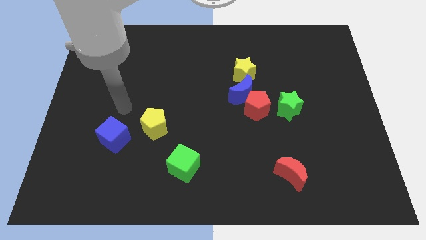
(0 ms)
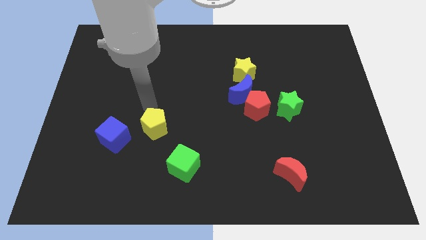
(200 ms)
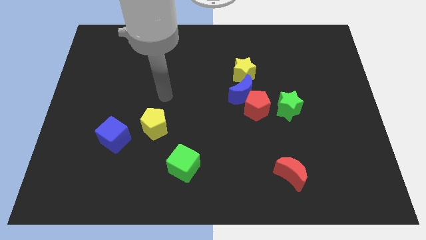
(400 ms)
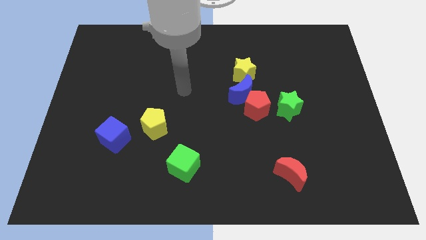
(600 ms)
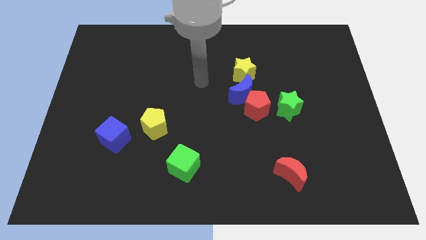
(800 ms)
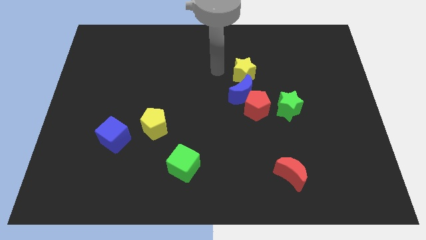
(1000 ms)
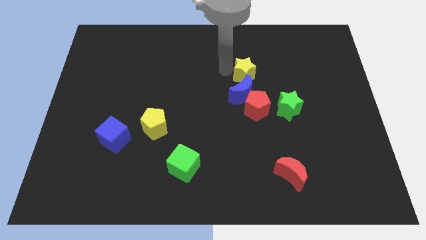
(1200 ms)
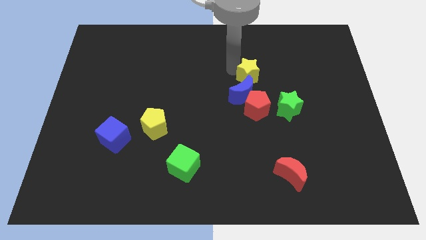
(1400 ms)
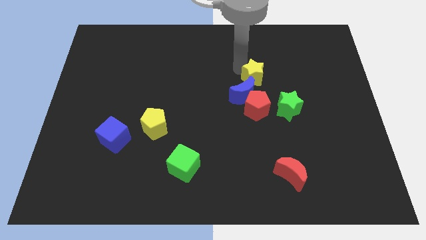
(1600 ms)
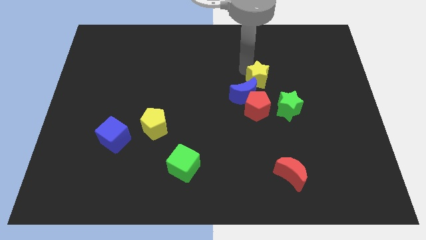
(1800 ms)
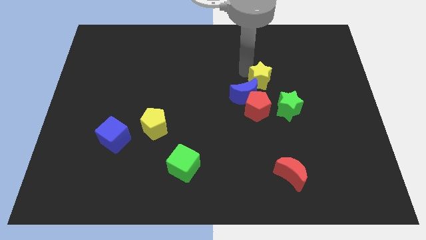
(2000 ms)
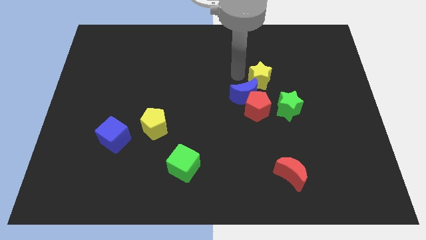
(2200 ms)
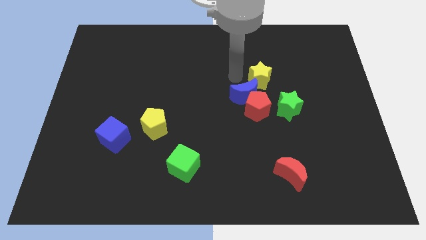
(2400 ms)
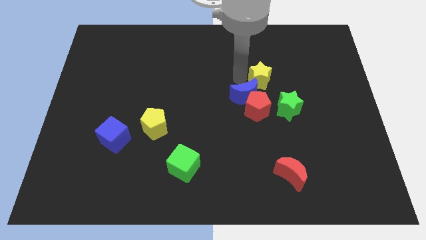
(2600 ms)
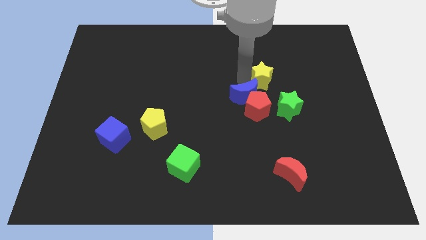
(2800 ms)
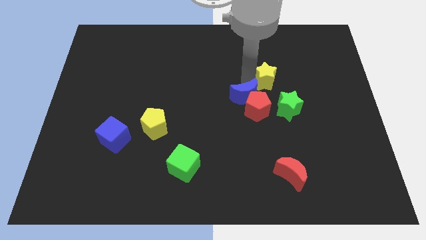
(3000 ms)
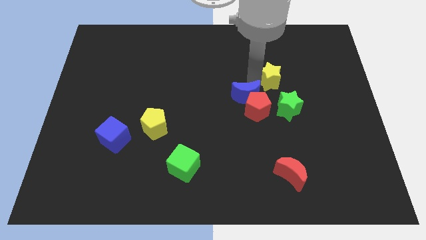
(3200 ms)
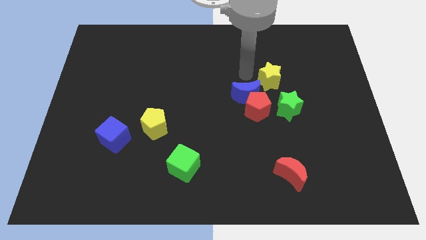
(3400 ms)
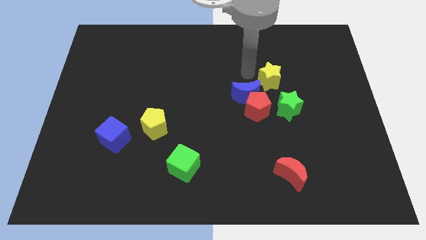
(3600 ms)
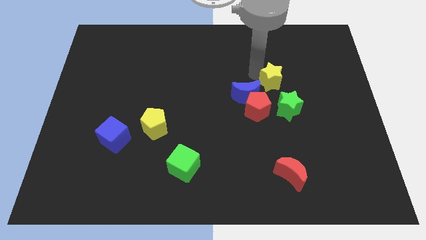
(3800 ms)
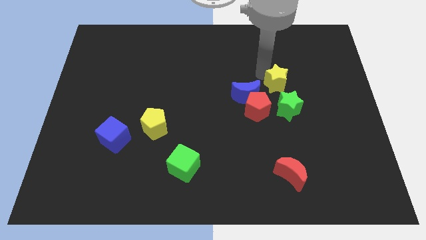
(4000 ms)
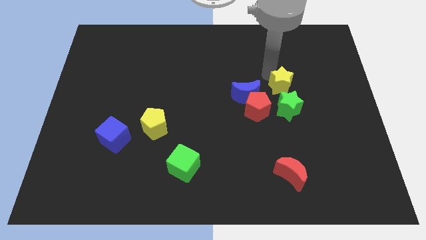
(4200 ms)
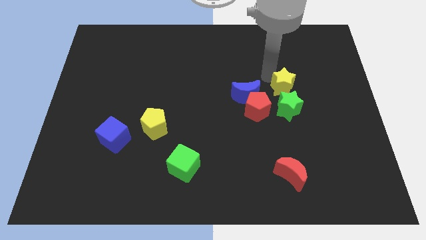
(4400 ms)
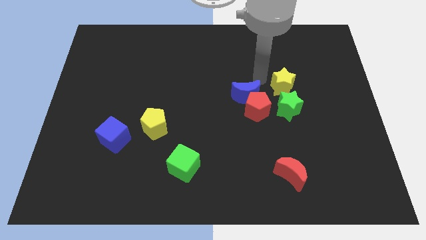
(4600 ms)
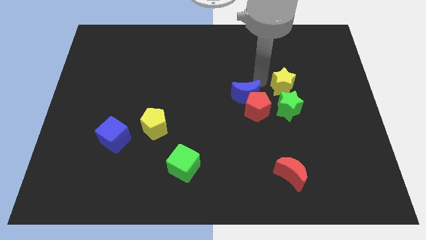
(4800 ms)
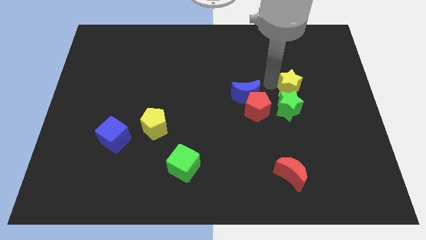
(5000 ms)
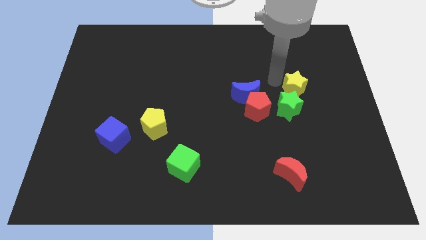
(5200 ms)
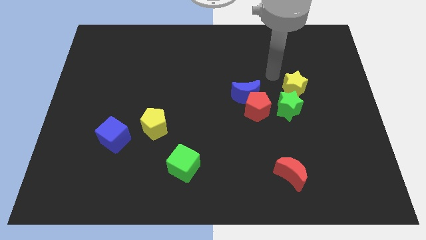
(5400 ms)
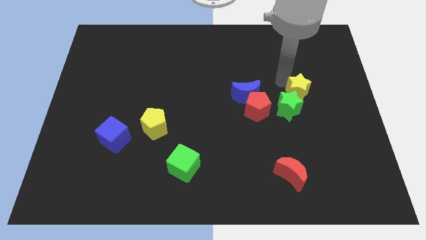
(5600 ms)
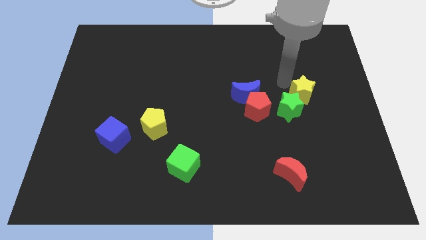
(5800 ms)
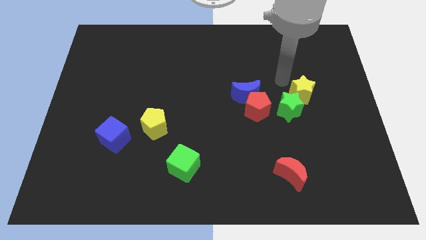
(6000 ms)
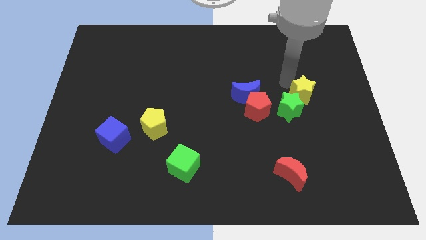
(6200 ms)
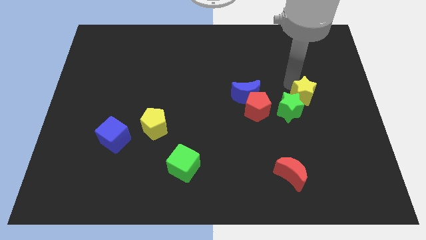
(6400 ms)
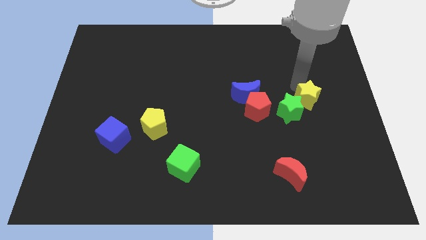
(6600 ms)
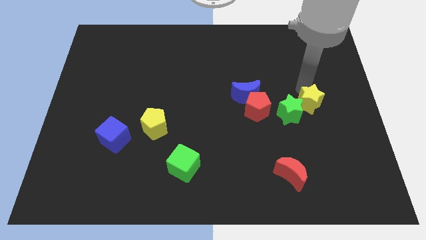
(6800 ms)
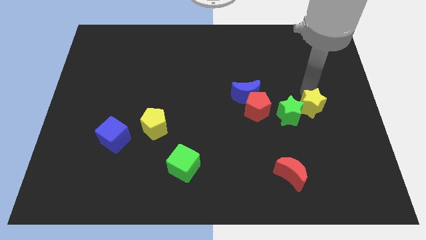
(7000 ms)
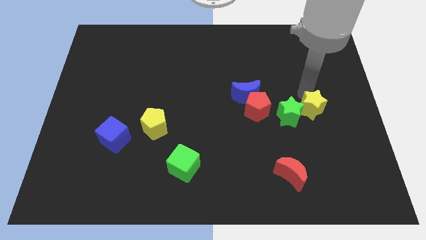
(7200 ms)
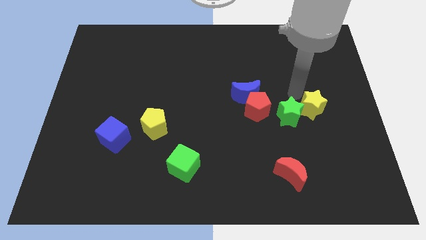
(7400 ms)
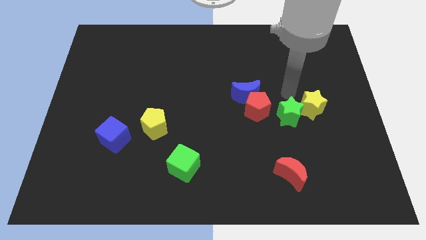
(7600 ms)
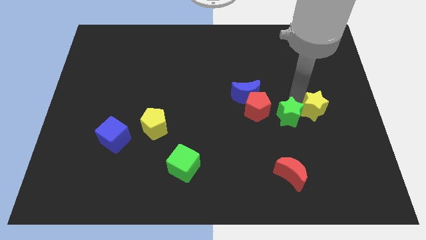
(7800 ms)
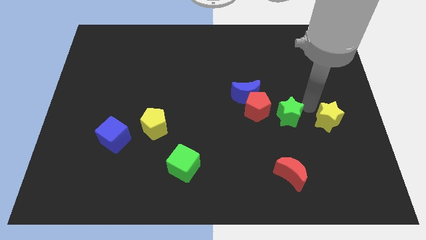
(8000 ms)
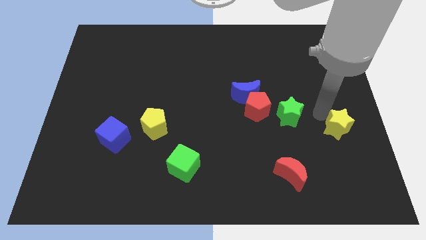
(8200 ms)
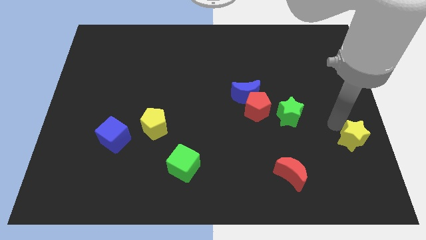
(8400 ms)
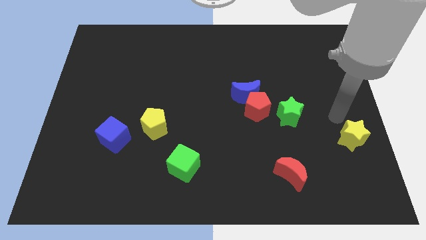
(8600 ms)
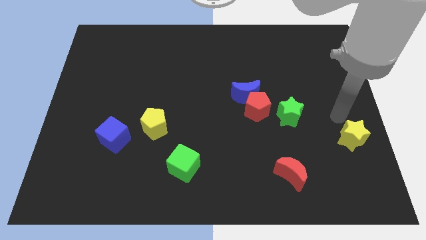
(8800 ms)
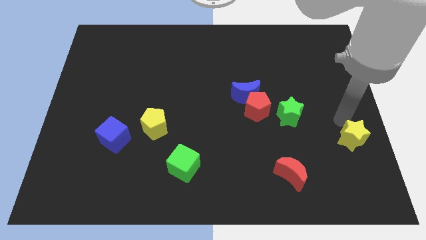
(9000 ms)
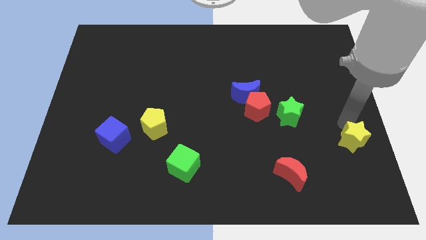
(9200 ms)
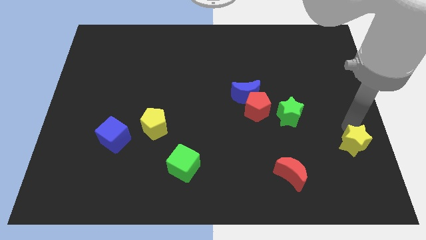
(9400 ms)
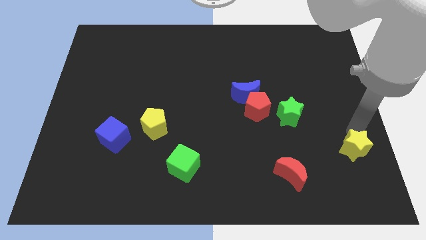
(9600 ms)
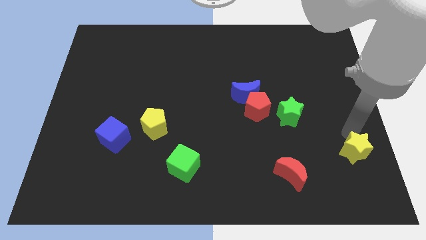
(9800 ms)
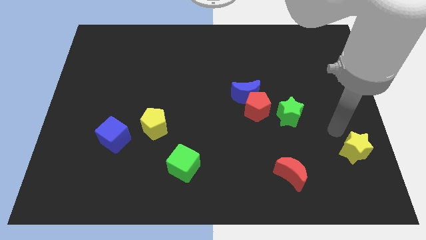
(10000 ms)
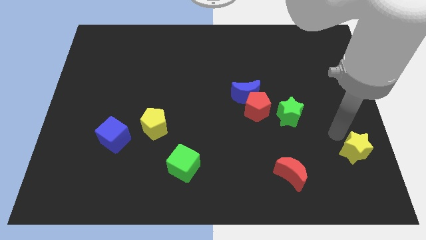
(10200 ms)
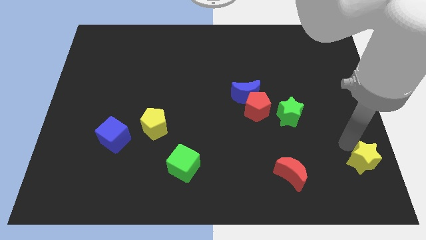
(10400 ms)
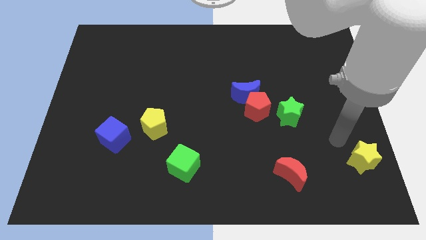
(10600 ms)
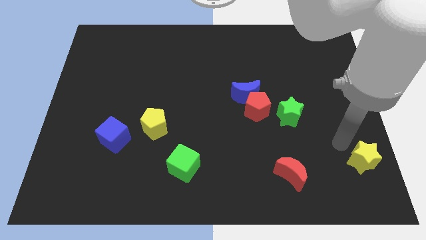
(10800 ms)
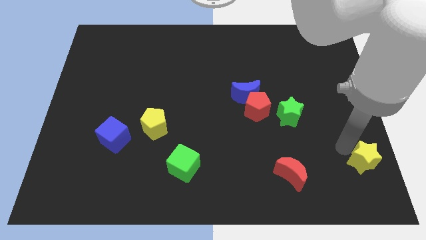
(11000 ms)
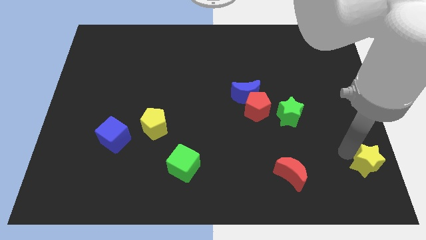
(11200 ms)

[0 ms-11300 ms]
move the yellow star to the lower right corner

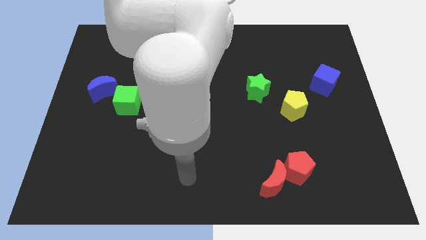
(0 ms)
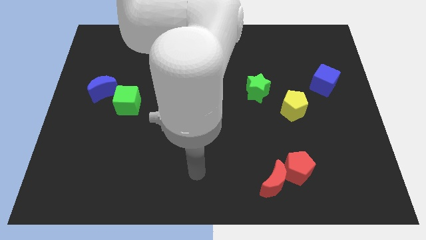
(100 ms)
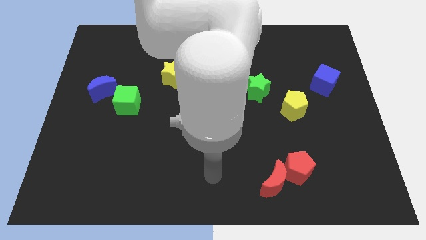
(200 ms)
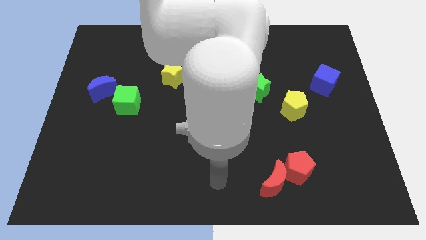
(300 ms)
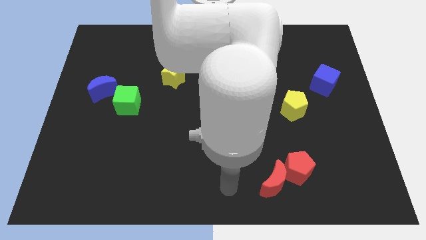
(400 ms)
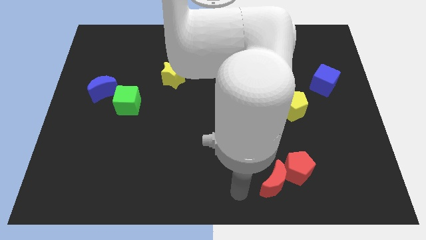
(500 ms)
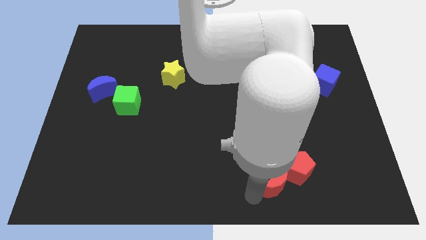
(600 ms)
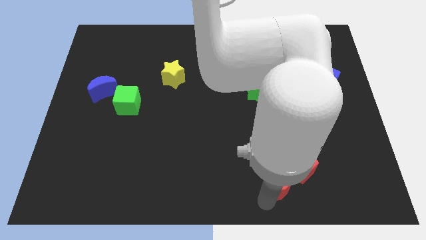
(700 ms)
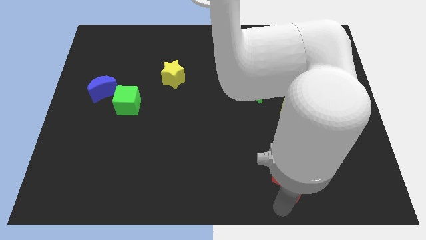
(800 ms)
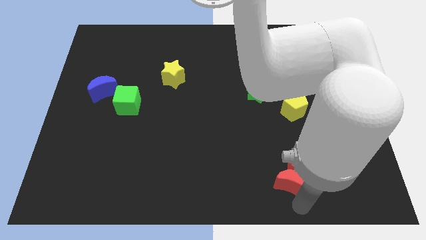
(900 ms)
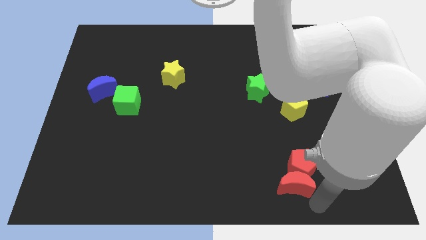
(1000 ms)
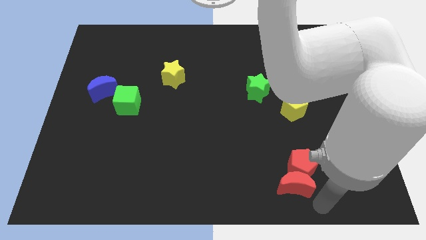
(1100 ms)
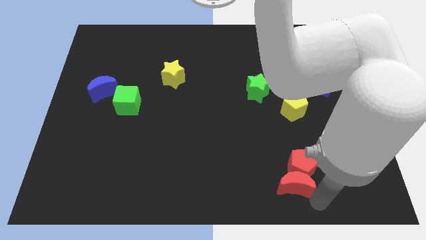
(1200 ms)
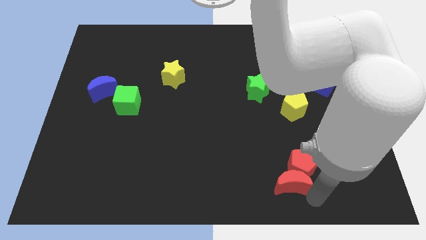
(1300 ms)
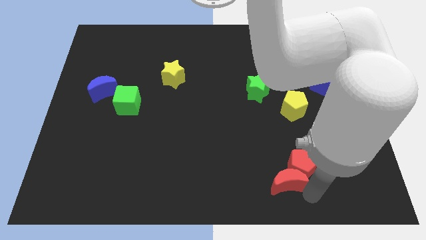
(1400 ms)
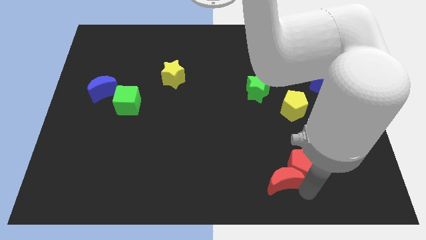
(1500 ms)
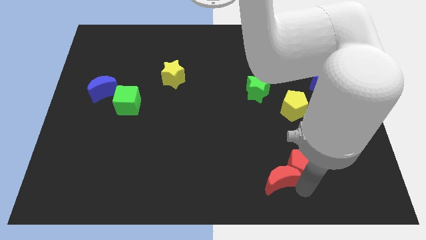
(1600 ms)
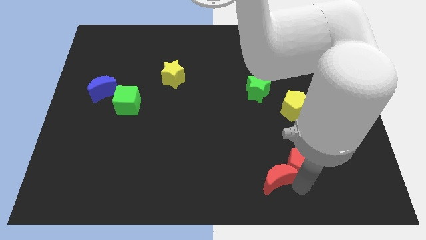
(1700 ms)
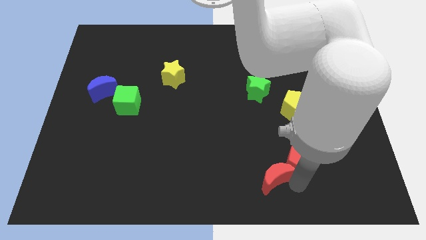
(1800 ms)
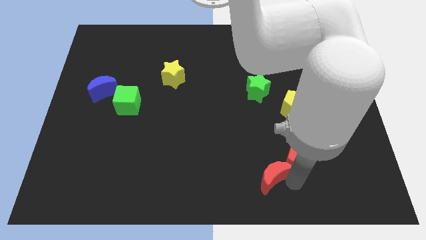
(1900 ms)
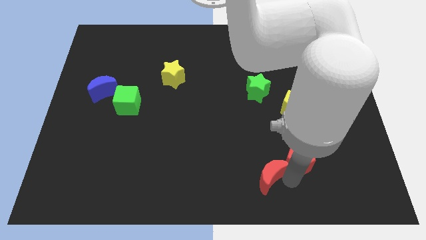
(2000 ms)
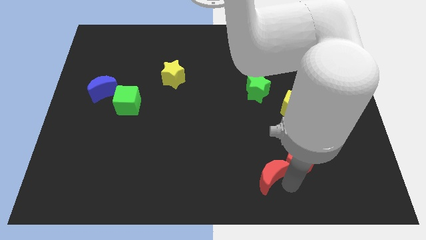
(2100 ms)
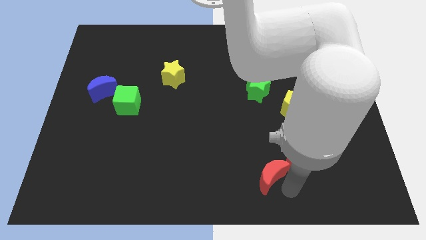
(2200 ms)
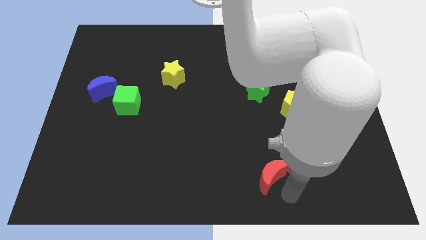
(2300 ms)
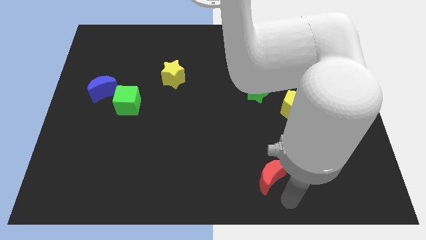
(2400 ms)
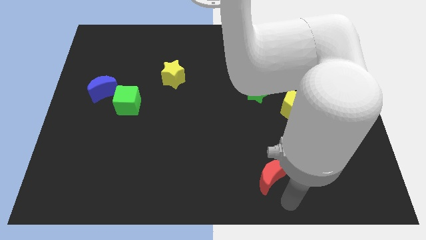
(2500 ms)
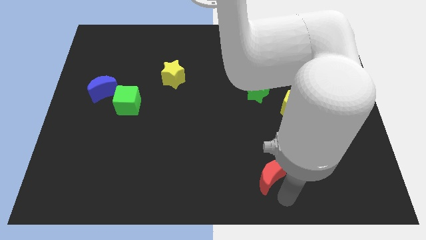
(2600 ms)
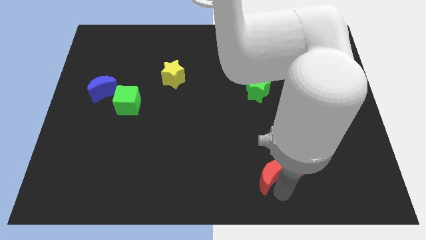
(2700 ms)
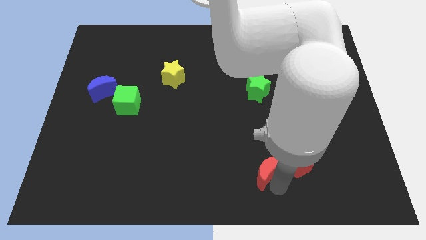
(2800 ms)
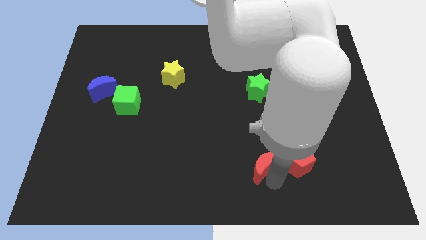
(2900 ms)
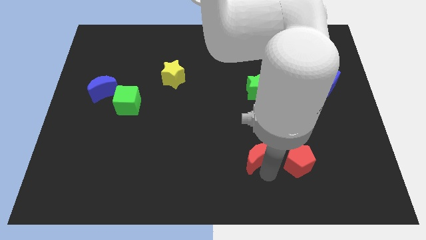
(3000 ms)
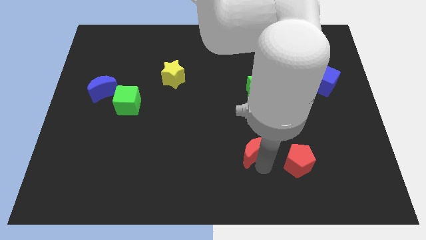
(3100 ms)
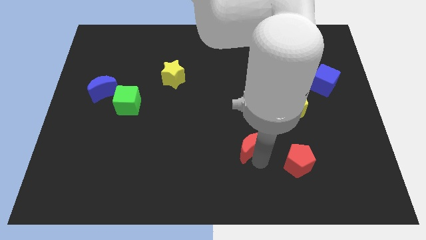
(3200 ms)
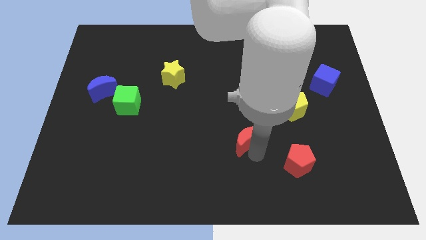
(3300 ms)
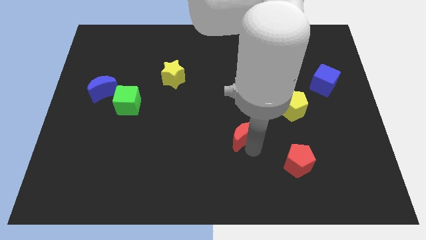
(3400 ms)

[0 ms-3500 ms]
move the red moon to the center of the board
